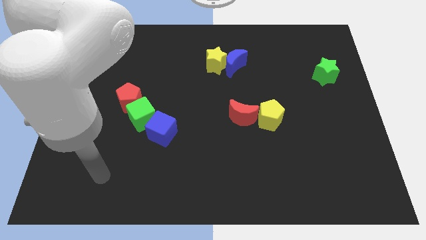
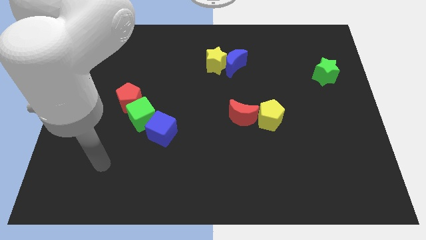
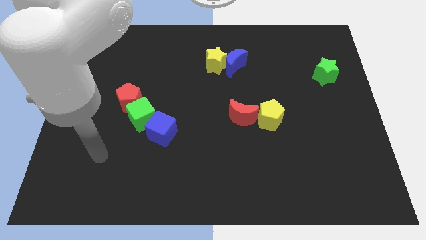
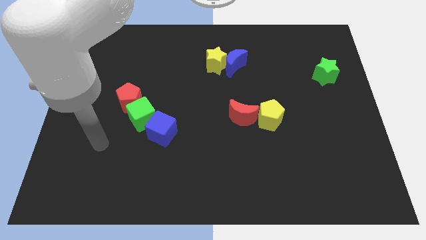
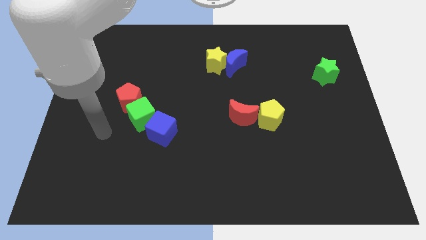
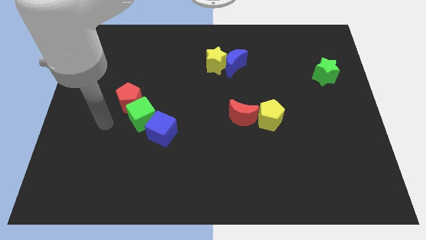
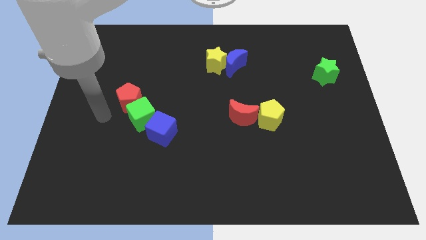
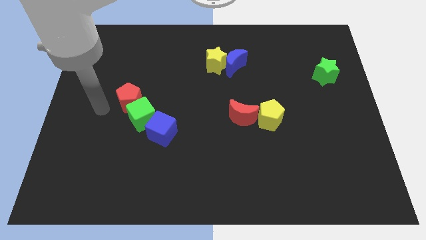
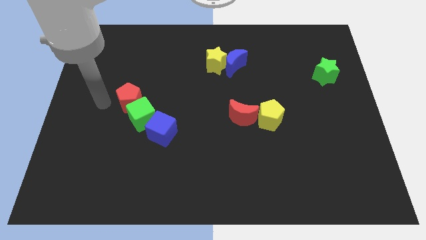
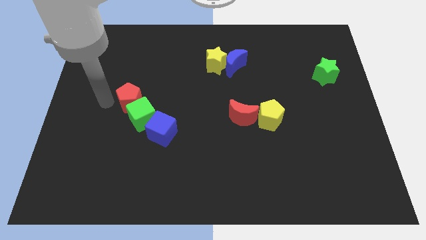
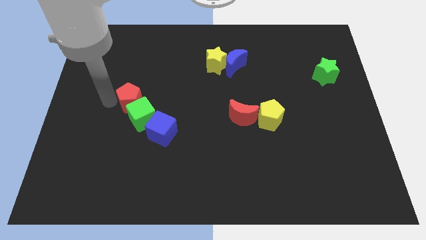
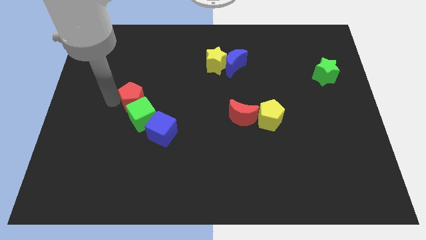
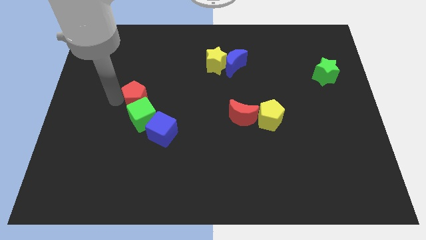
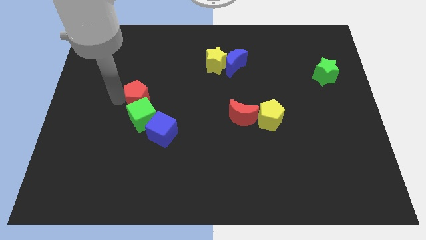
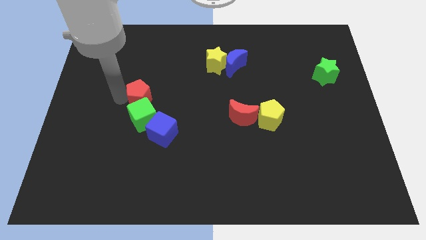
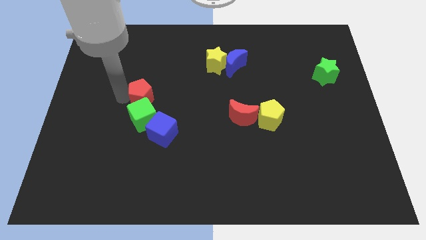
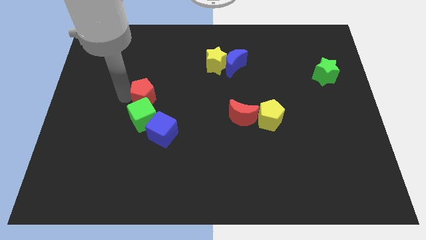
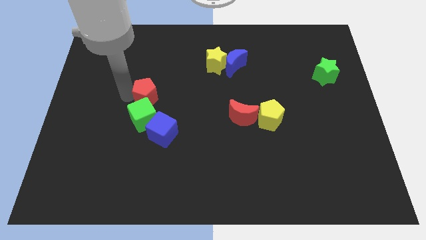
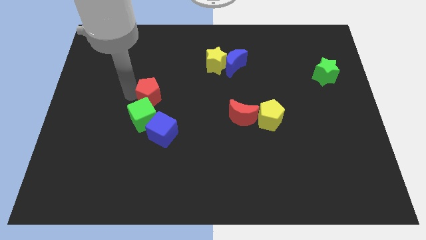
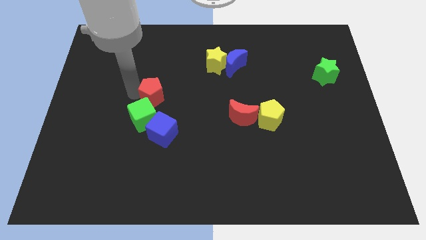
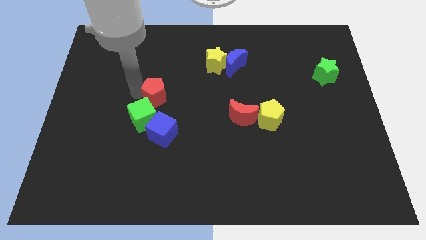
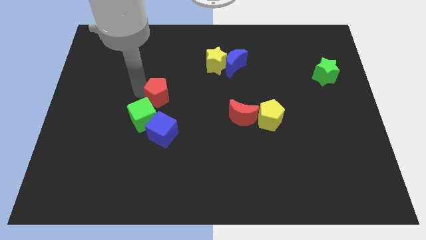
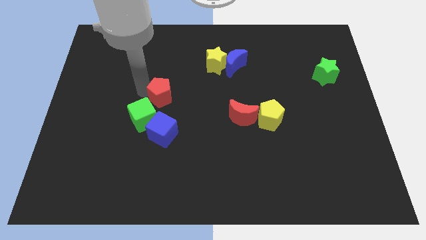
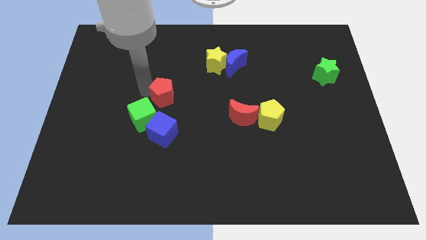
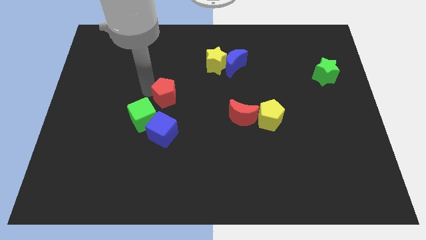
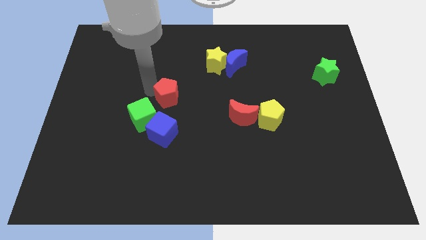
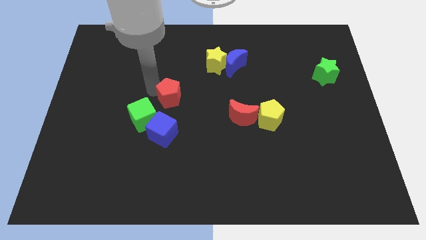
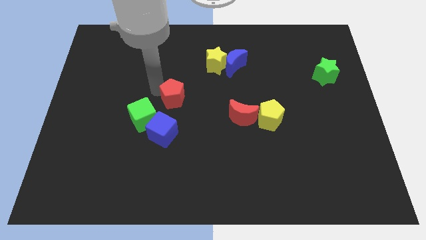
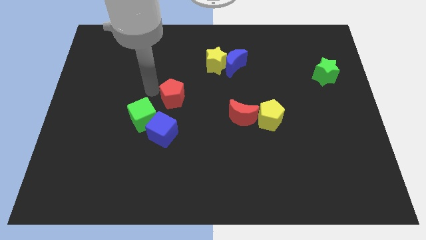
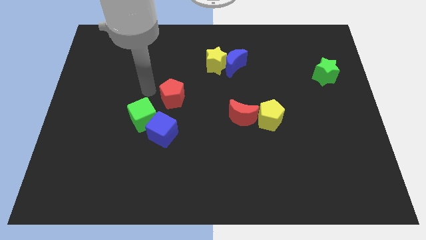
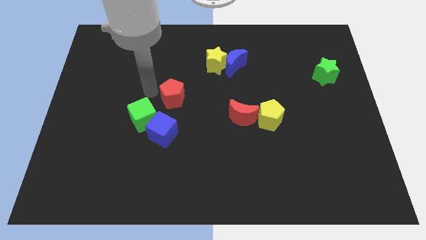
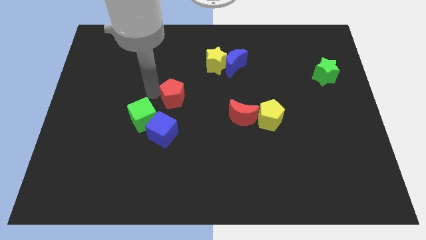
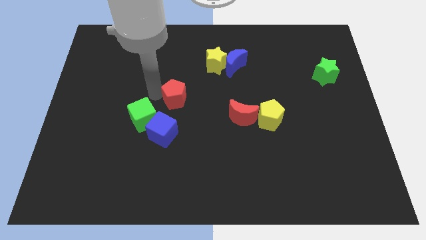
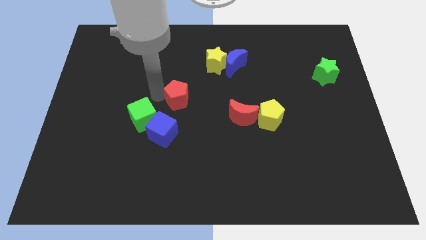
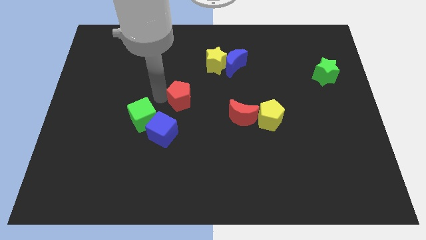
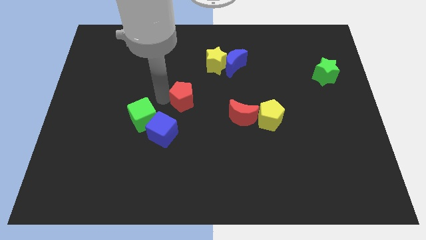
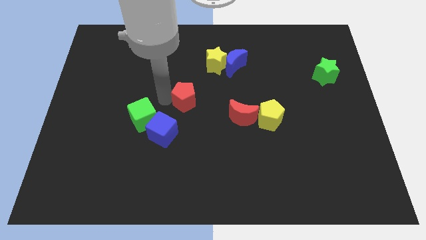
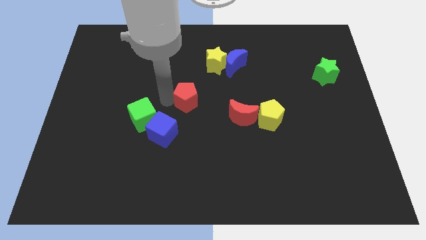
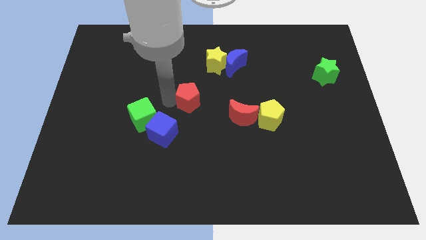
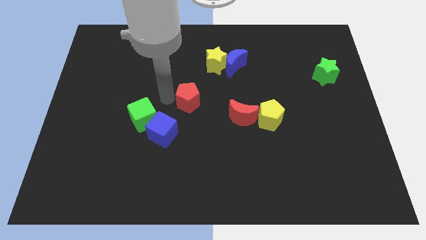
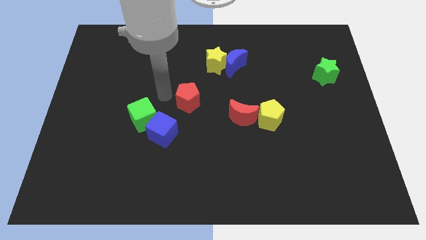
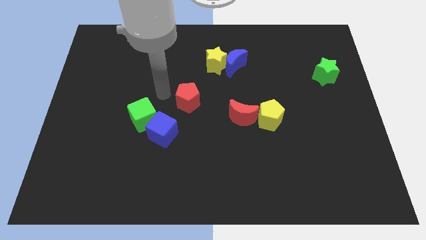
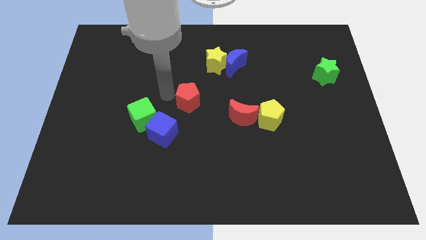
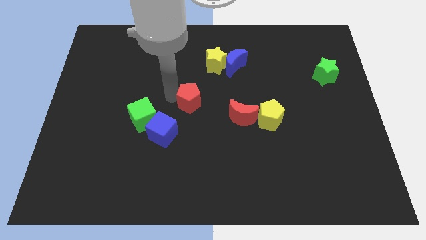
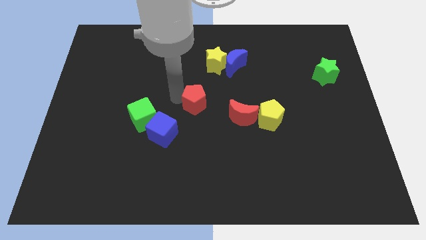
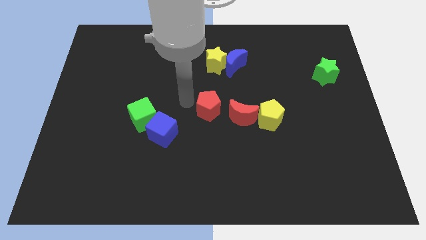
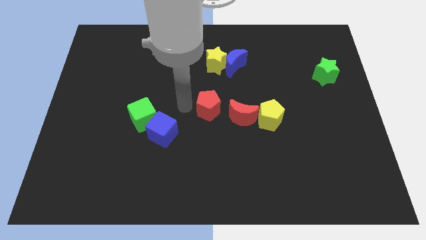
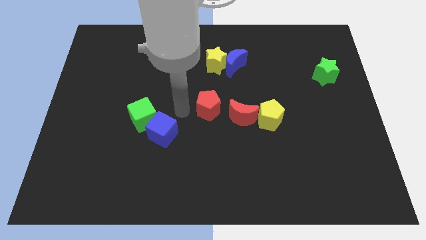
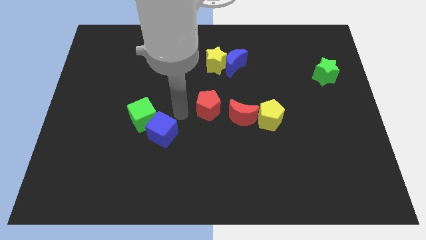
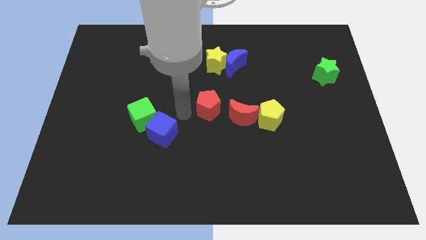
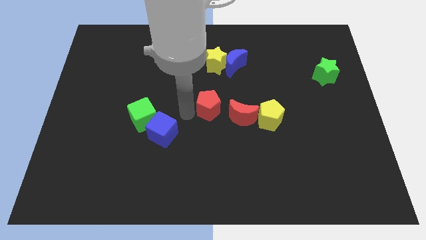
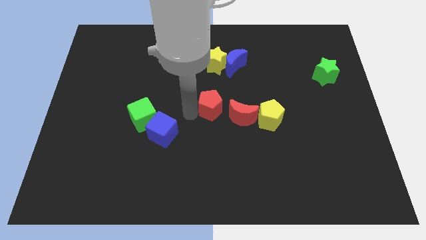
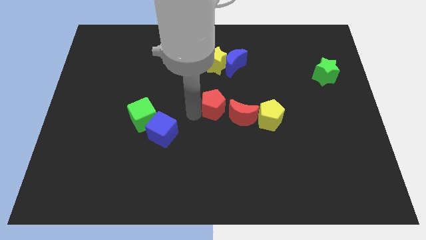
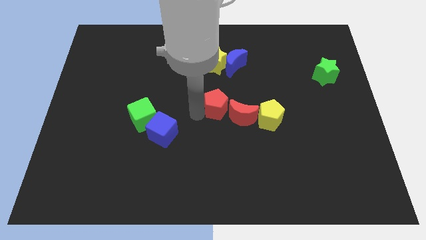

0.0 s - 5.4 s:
push the red pentagon right

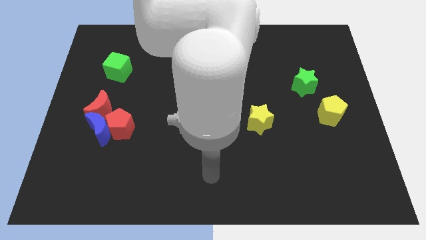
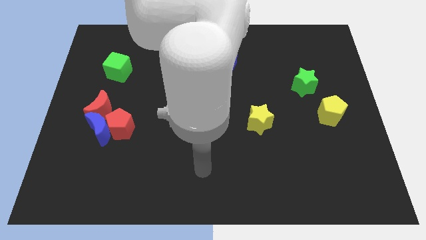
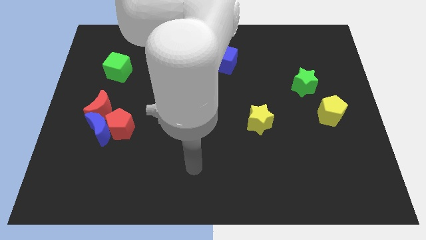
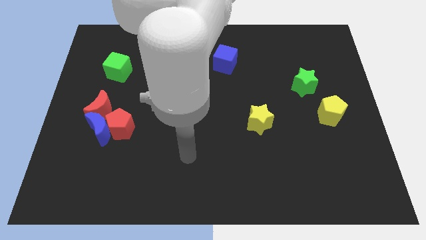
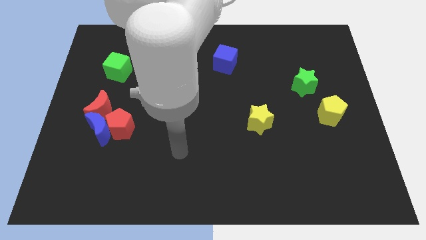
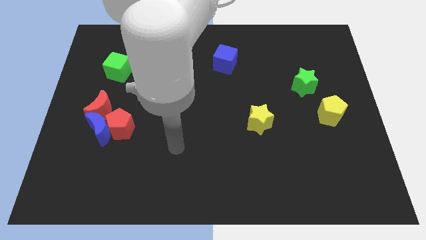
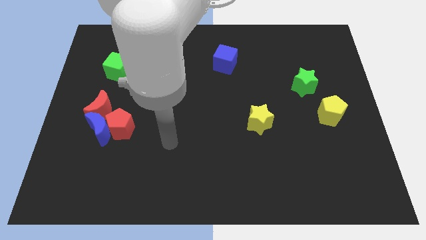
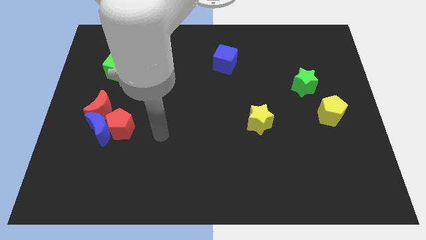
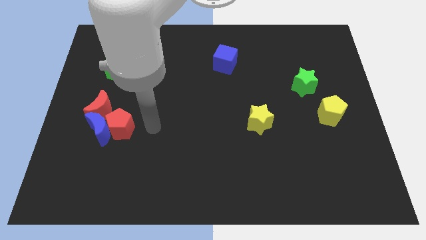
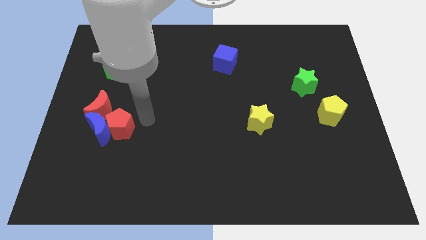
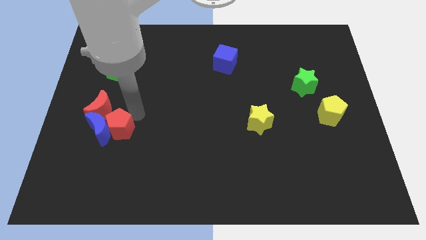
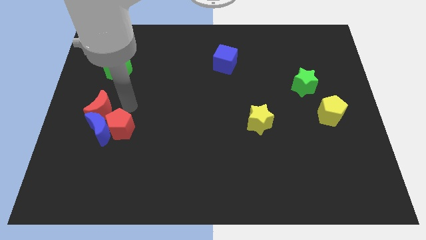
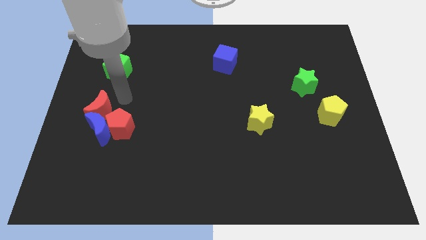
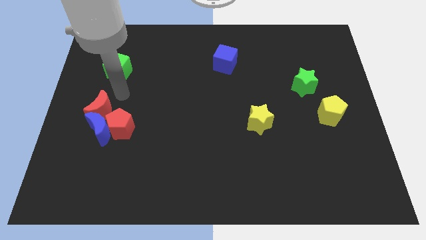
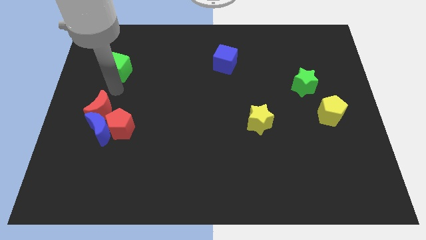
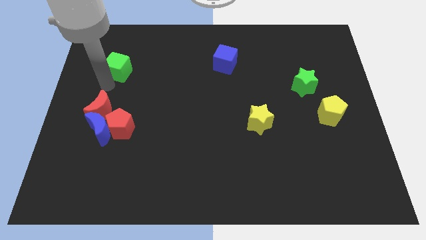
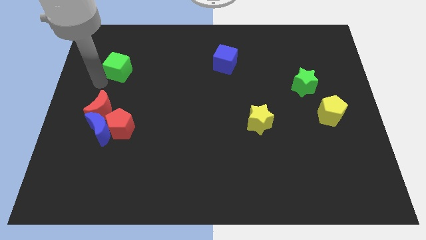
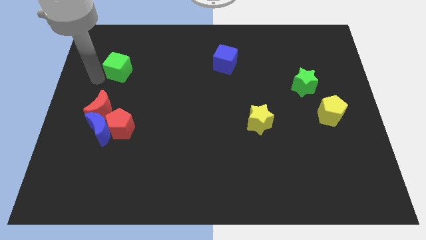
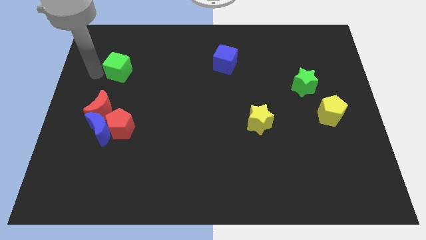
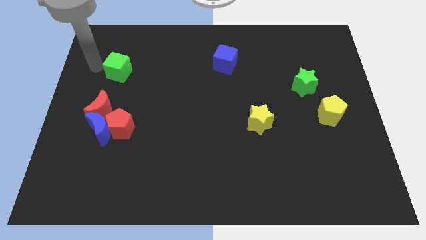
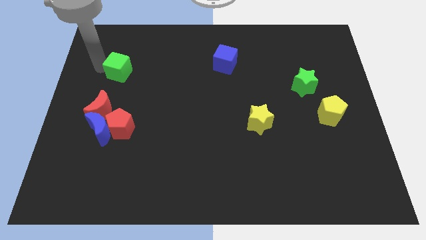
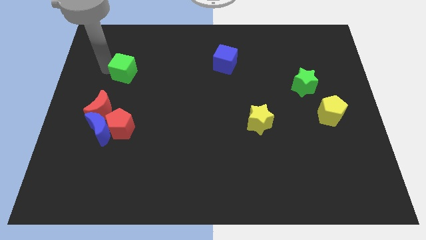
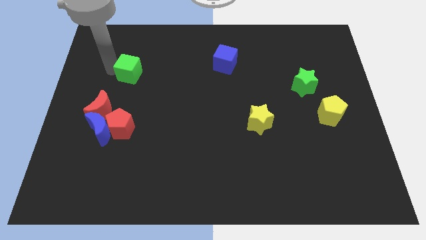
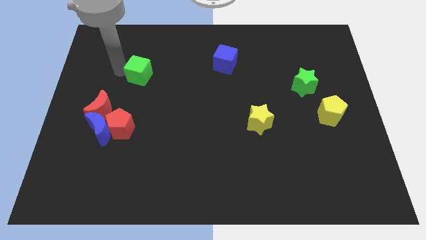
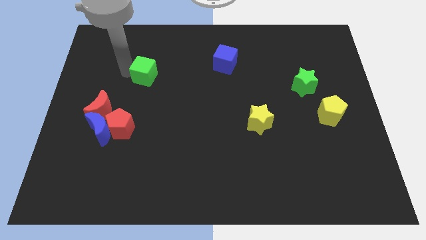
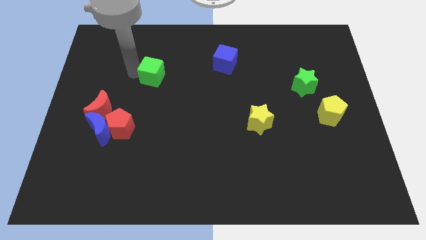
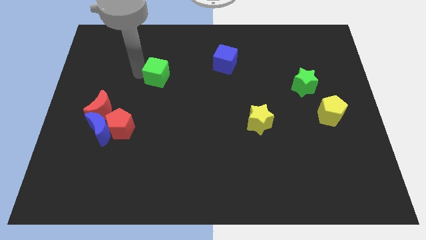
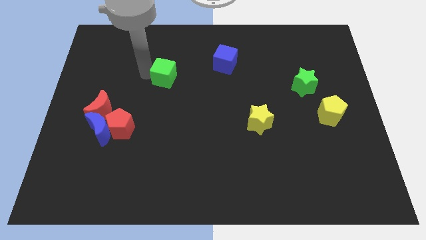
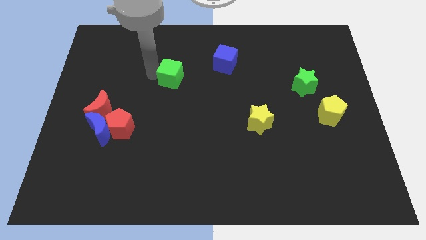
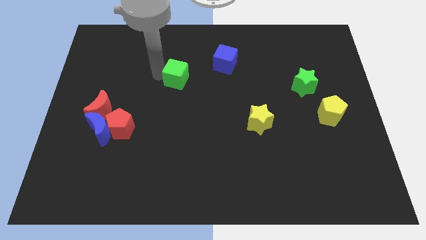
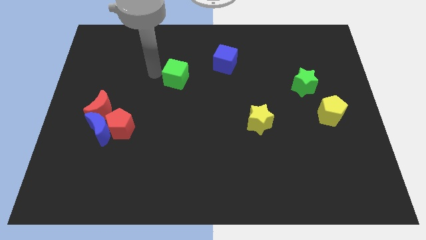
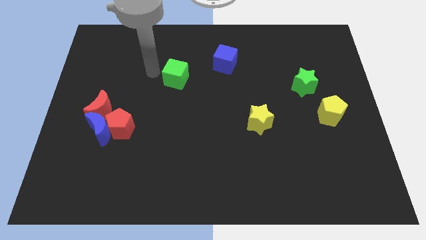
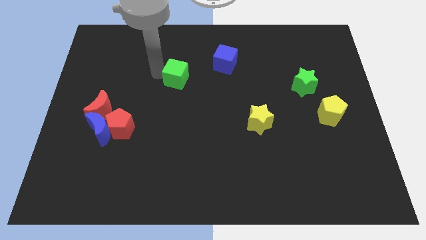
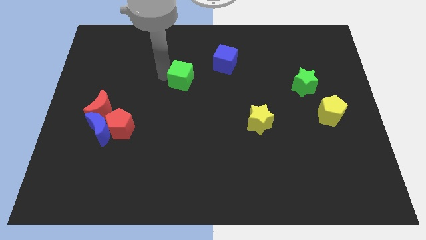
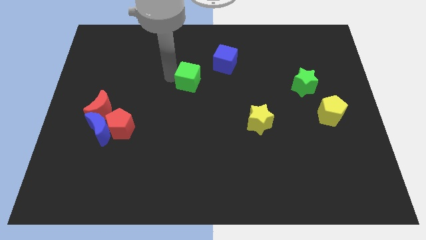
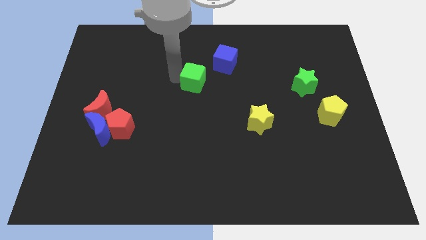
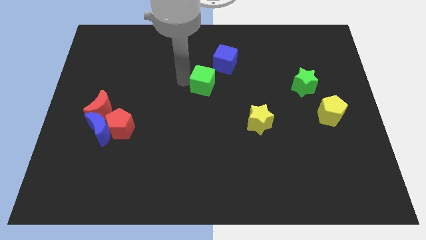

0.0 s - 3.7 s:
move the green cube right
